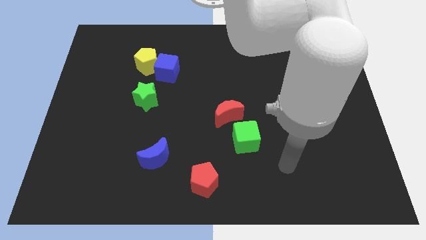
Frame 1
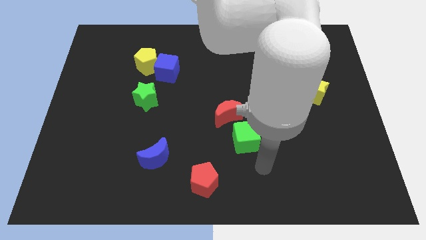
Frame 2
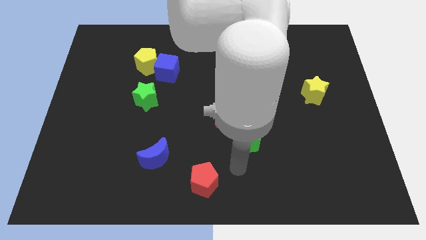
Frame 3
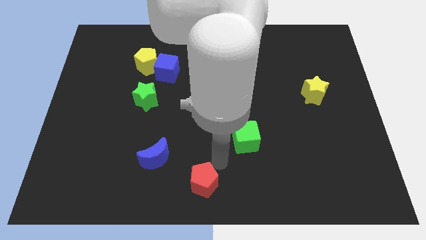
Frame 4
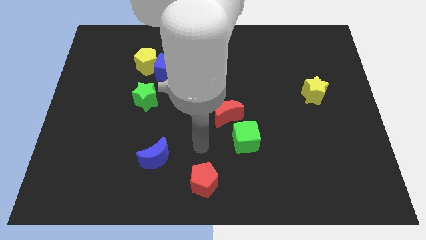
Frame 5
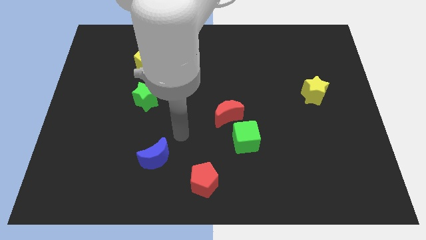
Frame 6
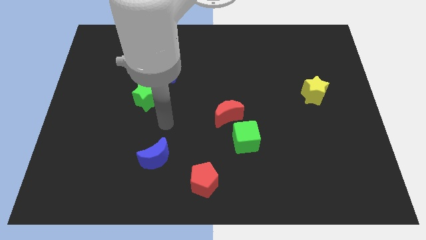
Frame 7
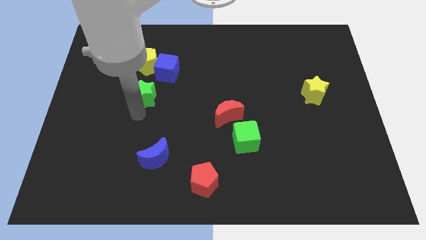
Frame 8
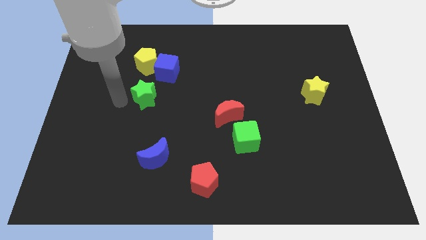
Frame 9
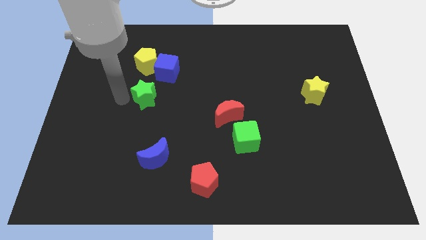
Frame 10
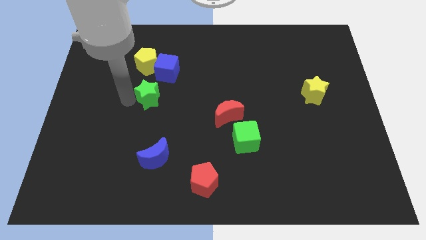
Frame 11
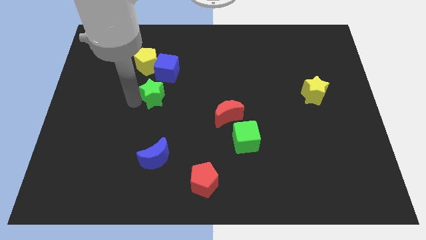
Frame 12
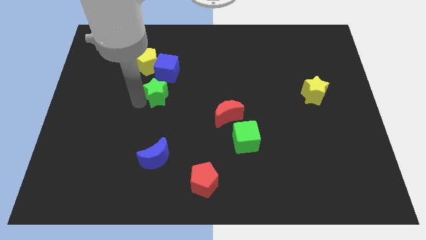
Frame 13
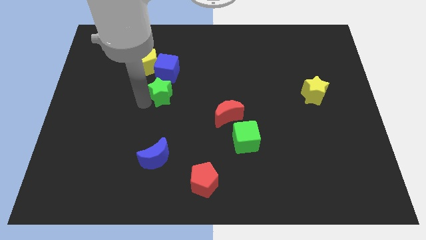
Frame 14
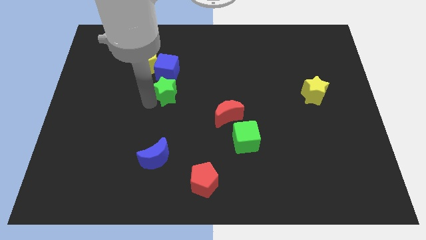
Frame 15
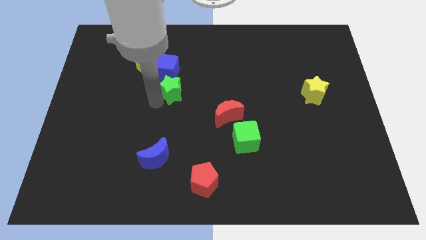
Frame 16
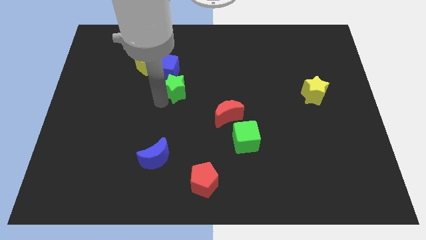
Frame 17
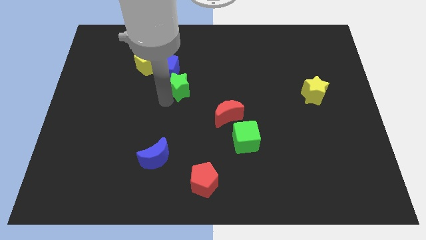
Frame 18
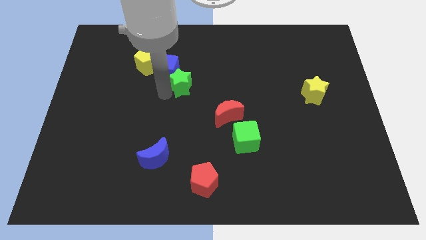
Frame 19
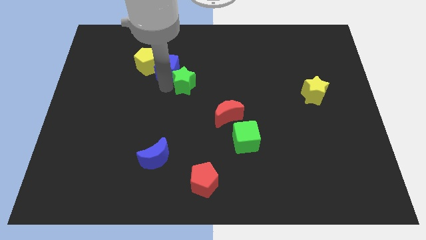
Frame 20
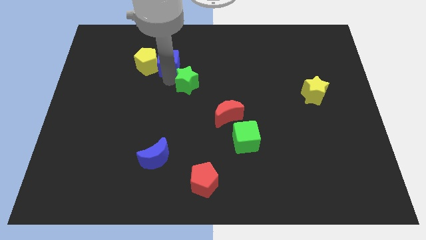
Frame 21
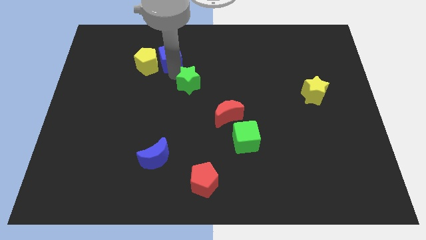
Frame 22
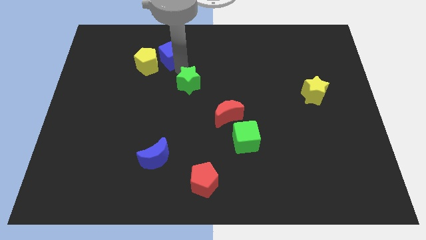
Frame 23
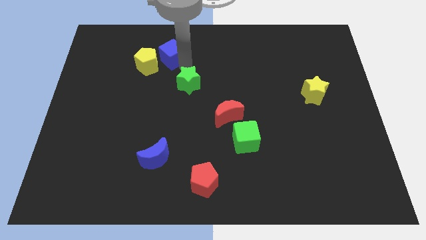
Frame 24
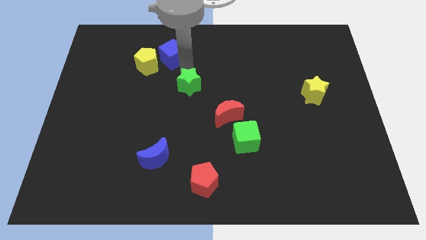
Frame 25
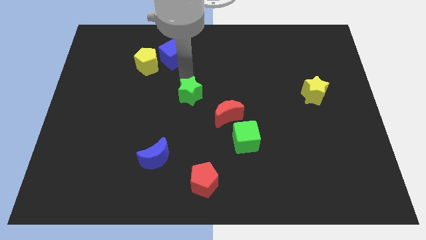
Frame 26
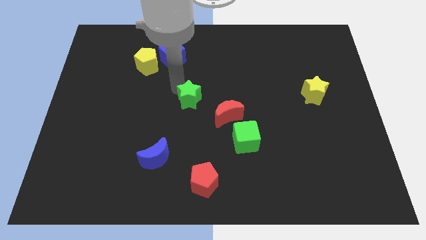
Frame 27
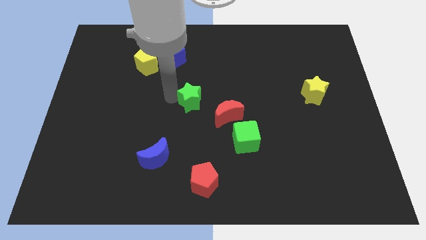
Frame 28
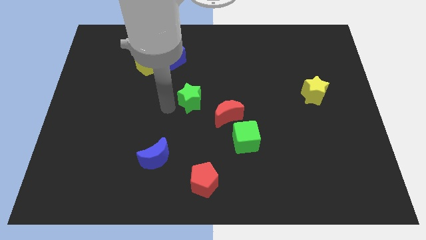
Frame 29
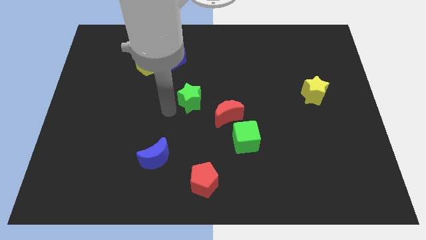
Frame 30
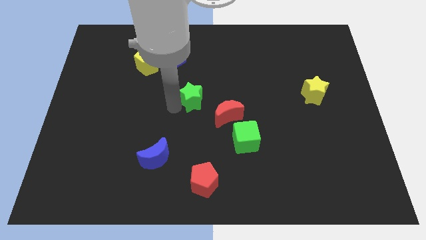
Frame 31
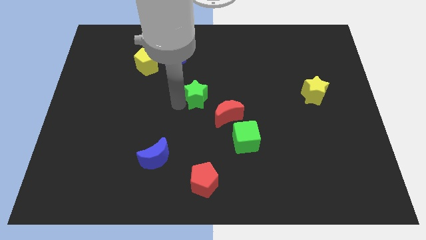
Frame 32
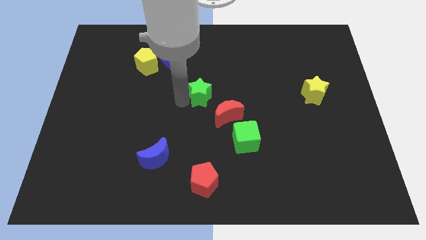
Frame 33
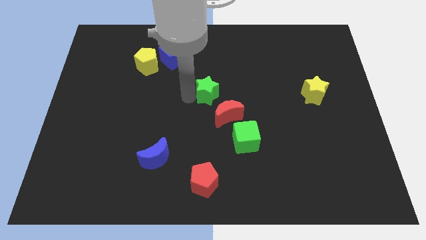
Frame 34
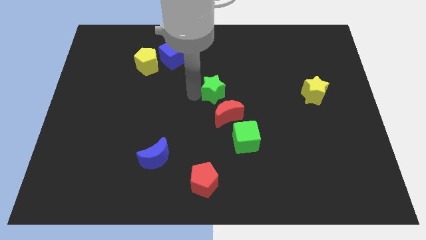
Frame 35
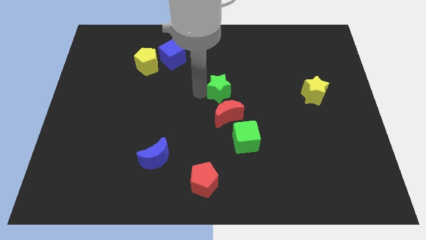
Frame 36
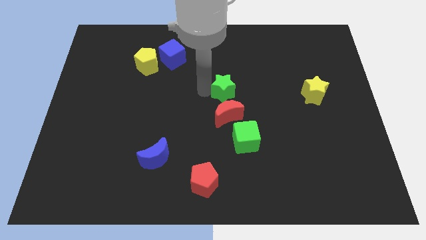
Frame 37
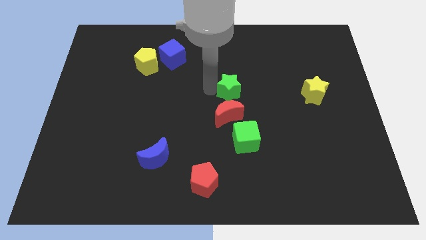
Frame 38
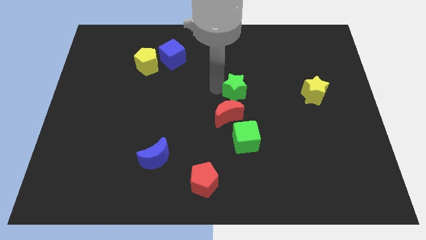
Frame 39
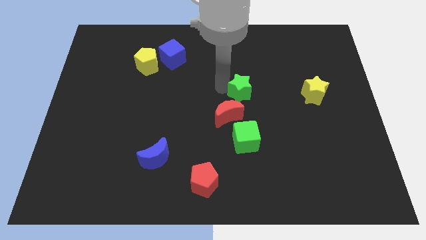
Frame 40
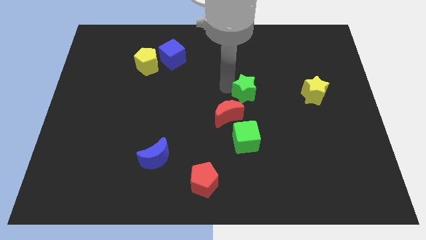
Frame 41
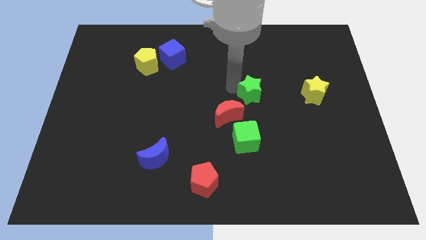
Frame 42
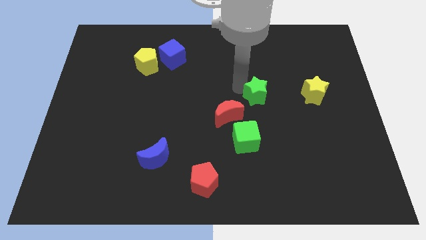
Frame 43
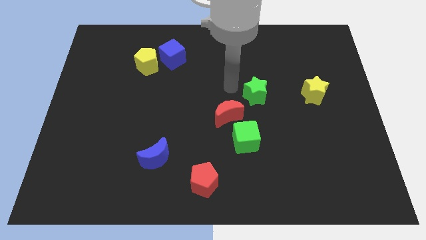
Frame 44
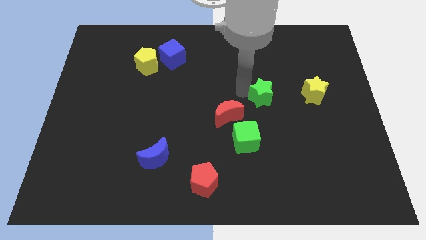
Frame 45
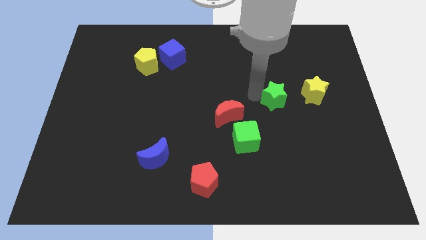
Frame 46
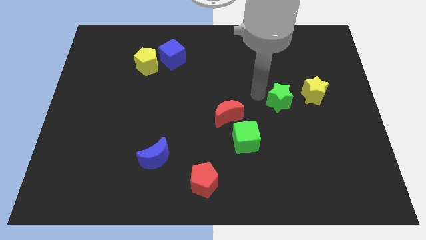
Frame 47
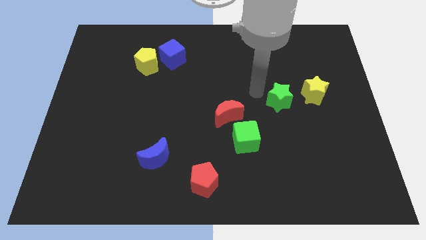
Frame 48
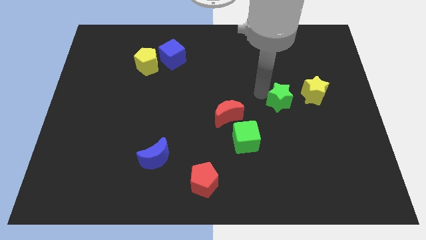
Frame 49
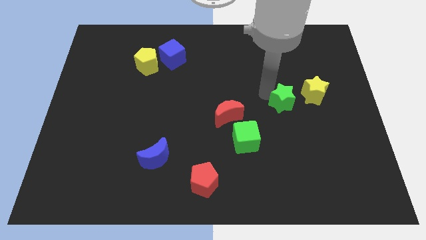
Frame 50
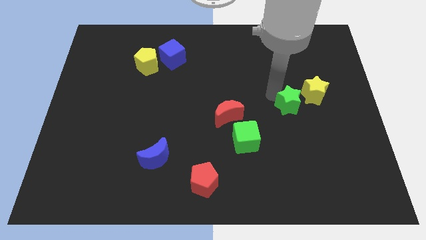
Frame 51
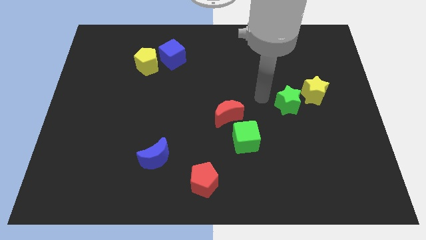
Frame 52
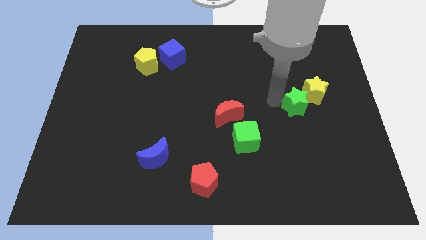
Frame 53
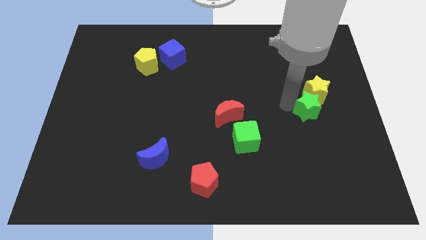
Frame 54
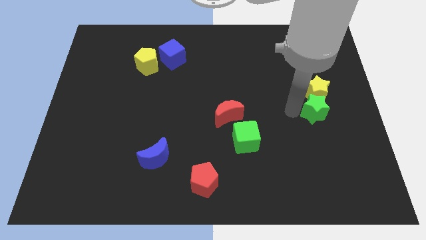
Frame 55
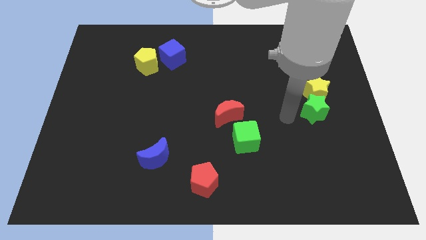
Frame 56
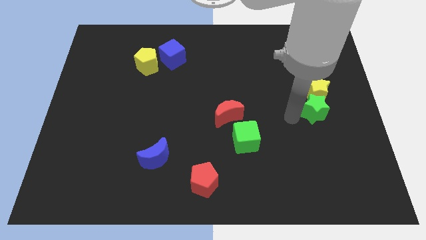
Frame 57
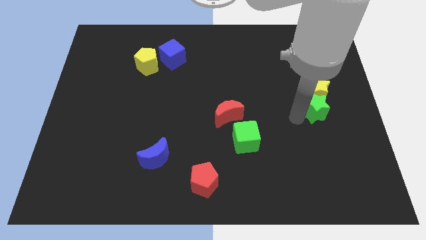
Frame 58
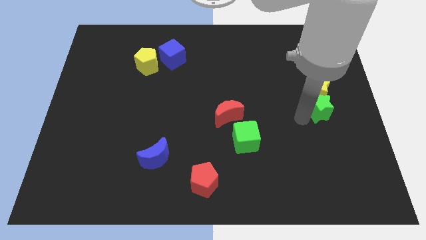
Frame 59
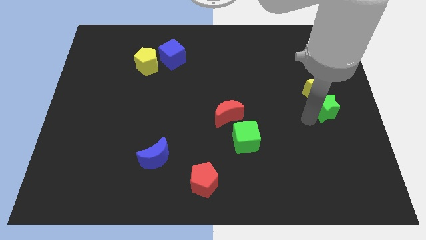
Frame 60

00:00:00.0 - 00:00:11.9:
move the green star to the right side

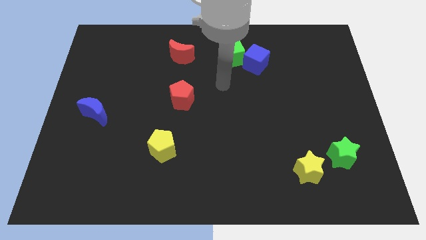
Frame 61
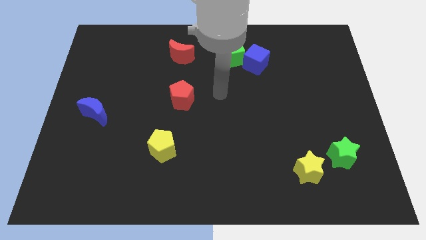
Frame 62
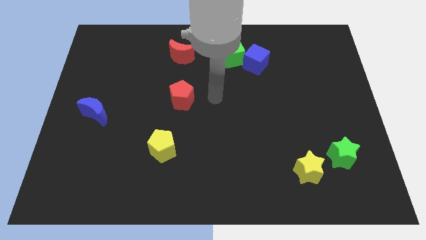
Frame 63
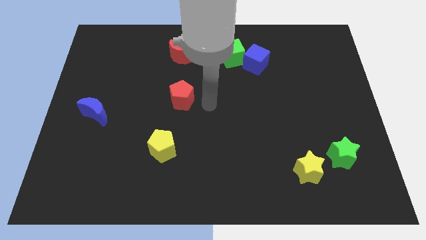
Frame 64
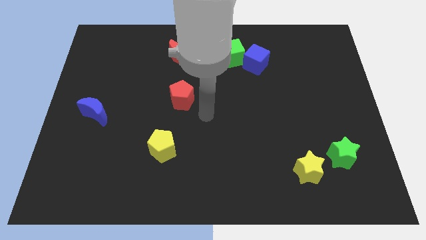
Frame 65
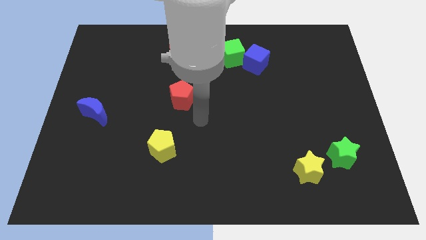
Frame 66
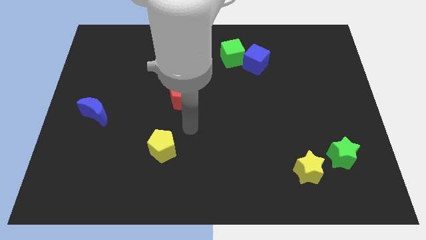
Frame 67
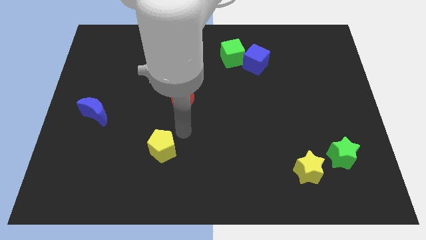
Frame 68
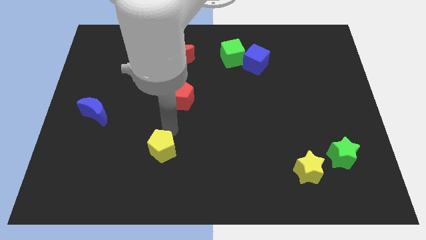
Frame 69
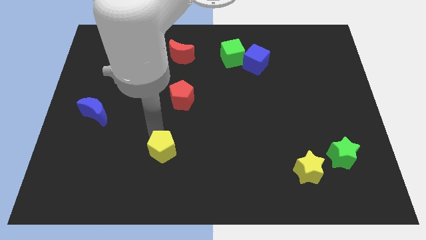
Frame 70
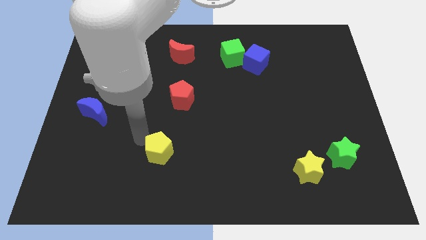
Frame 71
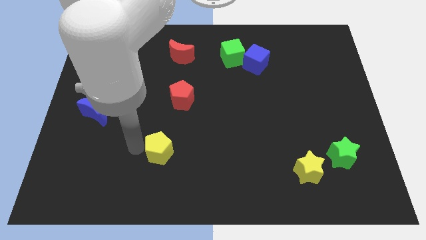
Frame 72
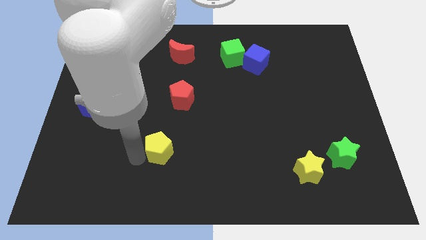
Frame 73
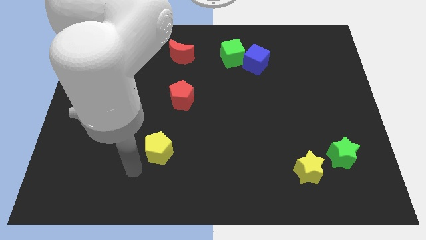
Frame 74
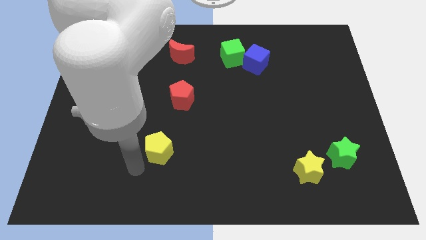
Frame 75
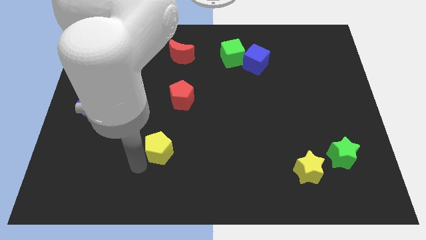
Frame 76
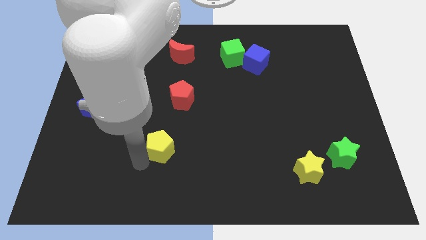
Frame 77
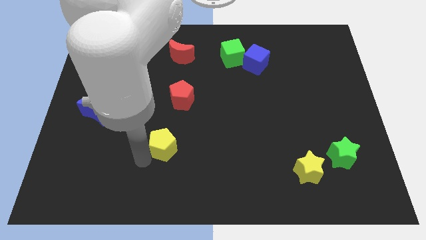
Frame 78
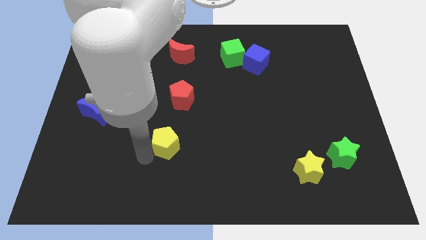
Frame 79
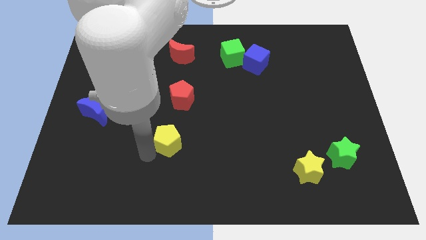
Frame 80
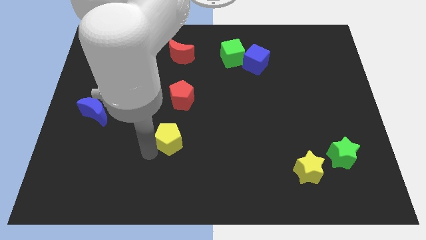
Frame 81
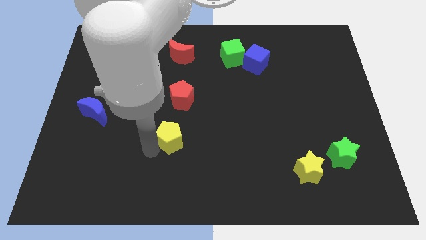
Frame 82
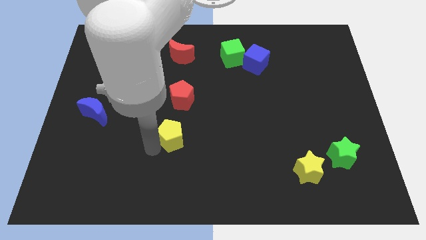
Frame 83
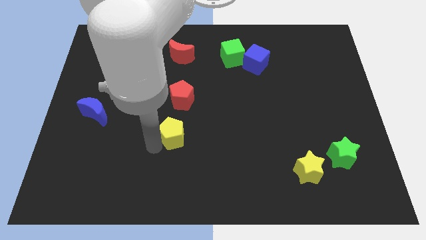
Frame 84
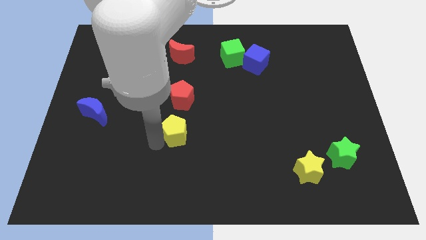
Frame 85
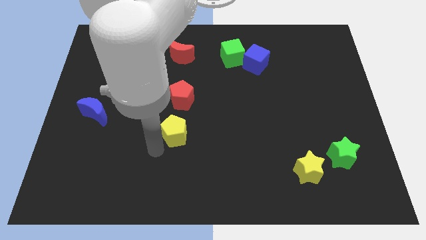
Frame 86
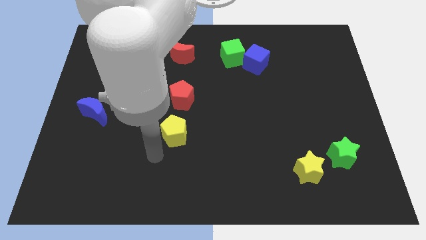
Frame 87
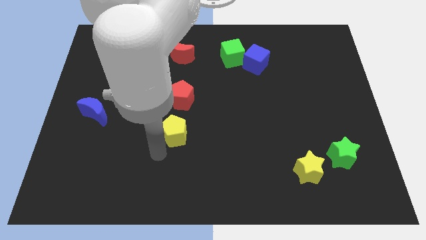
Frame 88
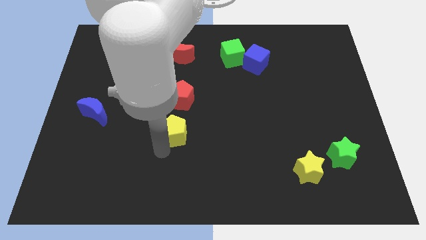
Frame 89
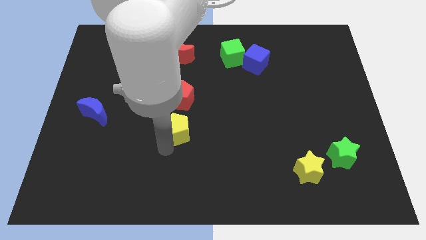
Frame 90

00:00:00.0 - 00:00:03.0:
slide the yellow pentagon to the middle of the board
